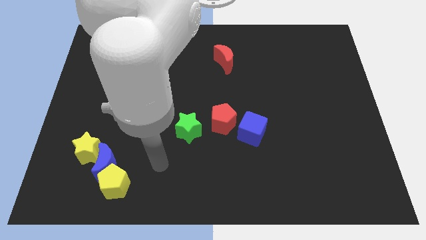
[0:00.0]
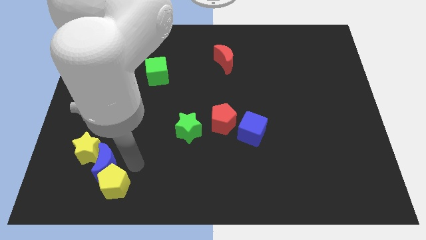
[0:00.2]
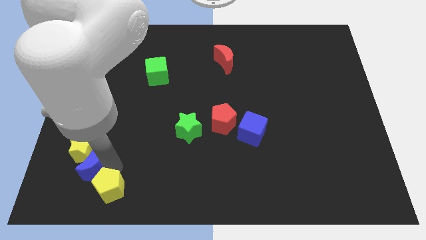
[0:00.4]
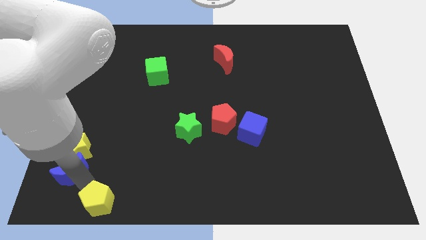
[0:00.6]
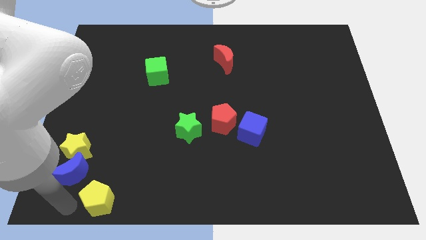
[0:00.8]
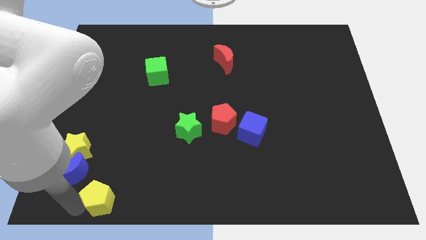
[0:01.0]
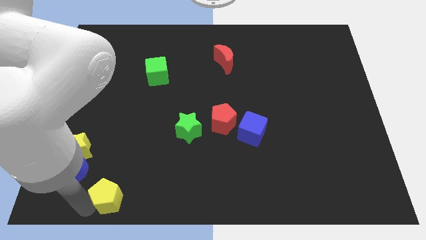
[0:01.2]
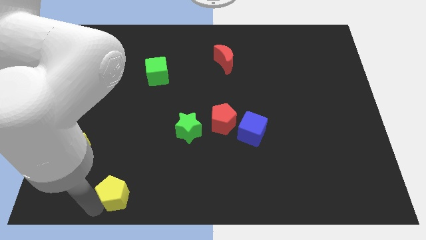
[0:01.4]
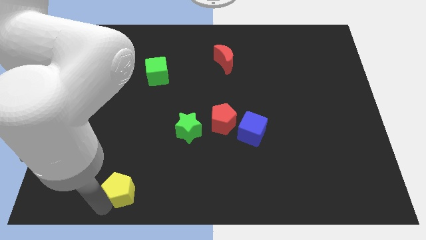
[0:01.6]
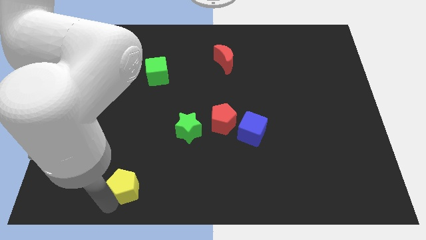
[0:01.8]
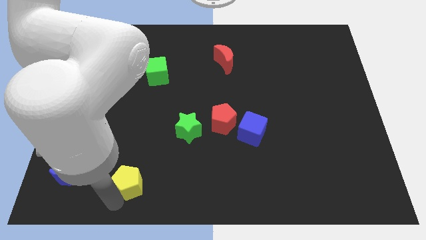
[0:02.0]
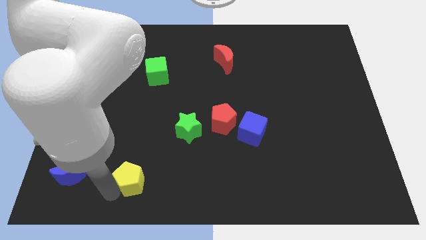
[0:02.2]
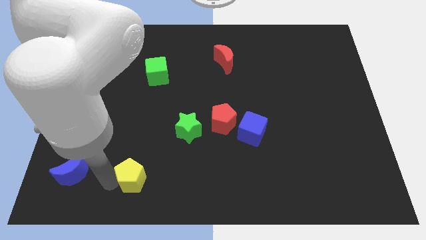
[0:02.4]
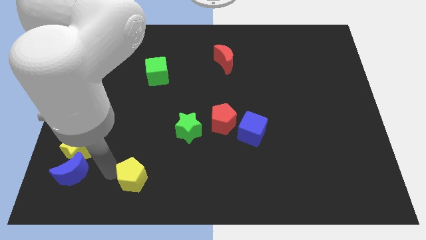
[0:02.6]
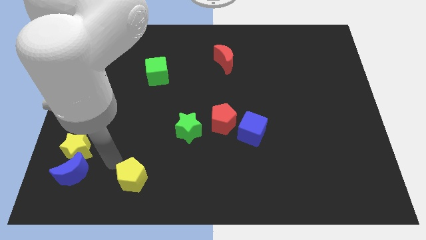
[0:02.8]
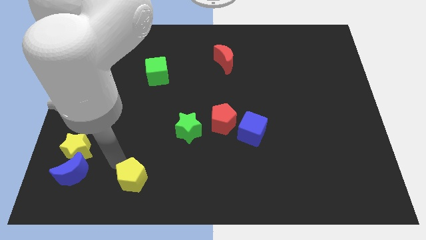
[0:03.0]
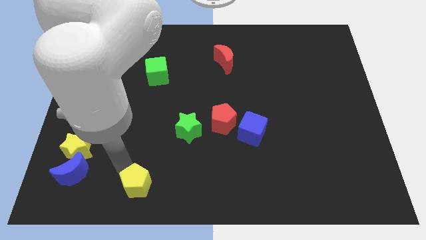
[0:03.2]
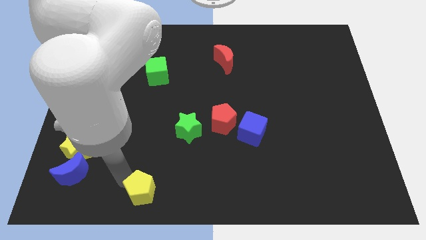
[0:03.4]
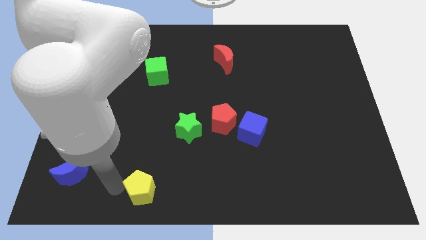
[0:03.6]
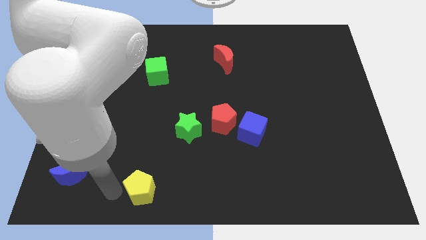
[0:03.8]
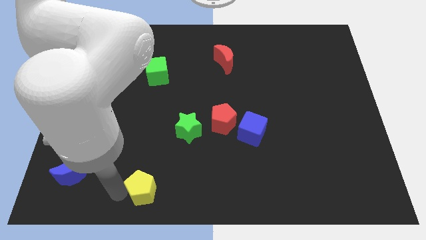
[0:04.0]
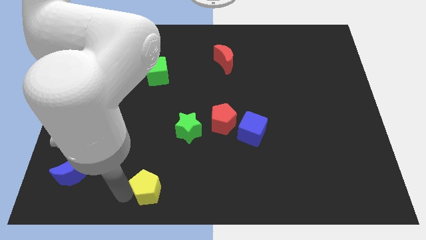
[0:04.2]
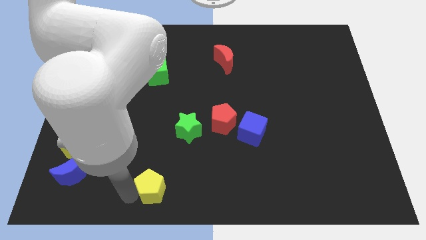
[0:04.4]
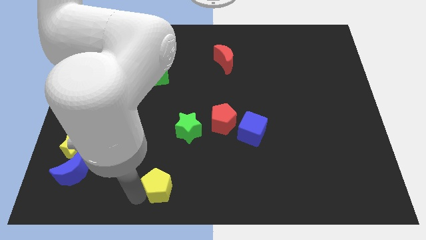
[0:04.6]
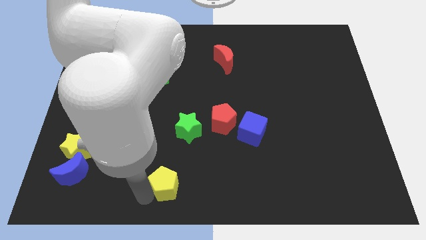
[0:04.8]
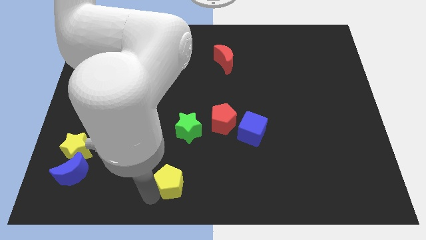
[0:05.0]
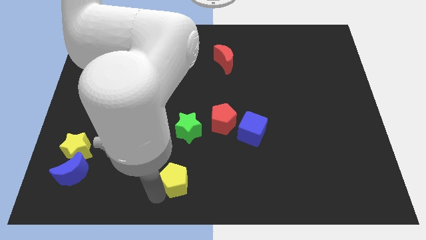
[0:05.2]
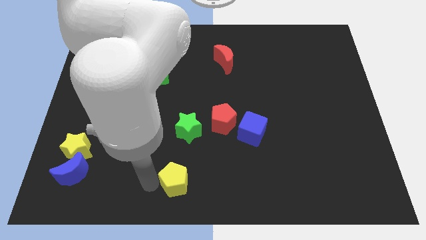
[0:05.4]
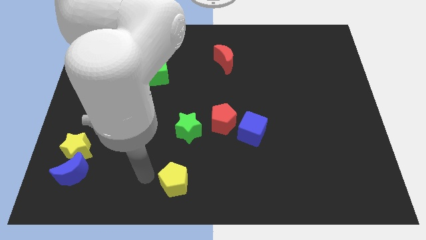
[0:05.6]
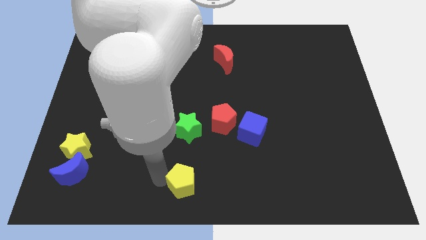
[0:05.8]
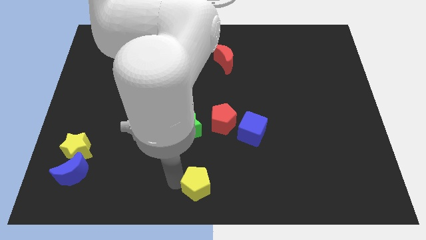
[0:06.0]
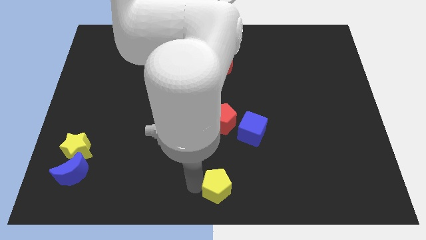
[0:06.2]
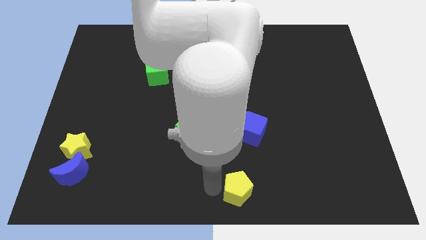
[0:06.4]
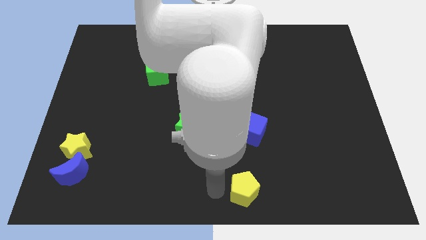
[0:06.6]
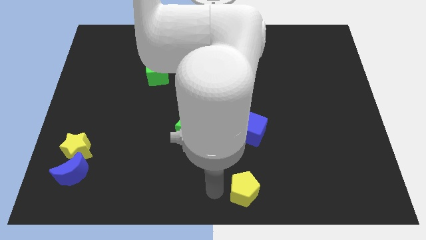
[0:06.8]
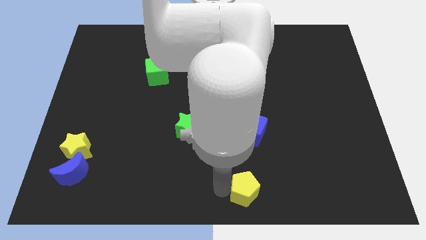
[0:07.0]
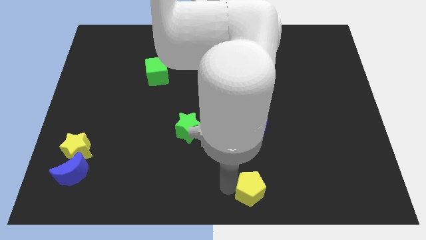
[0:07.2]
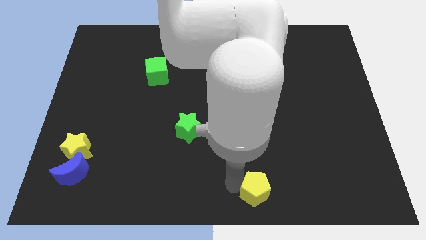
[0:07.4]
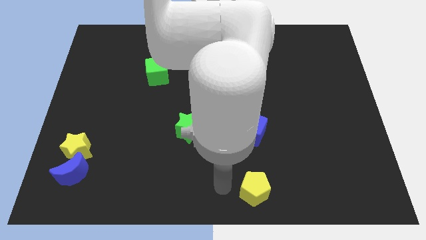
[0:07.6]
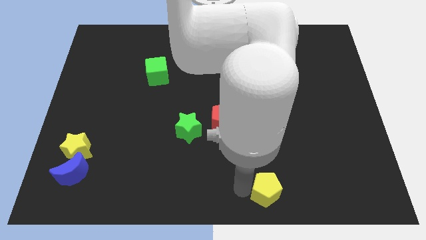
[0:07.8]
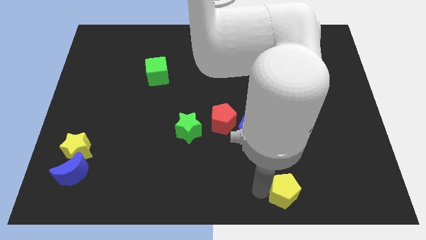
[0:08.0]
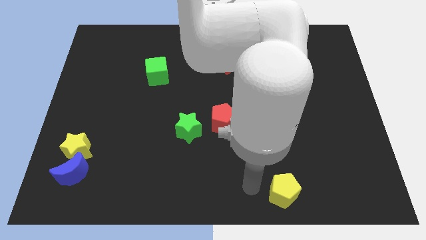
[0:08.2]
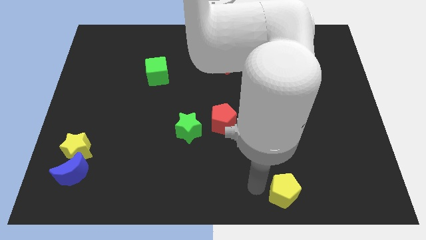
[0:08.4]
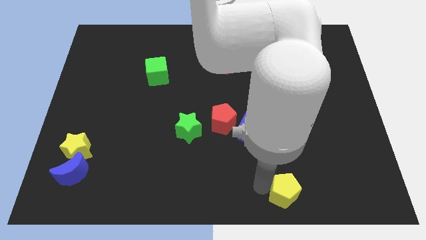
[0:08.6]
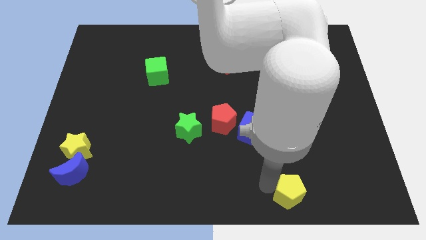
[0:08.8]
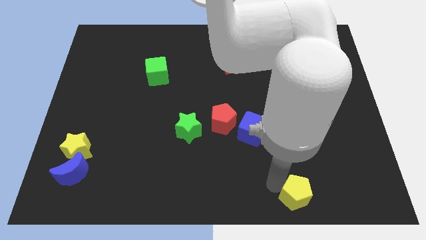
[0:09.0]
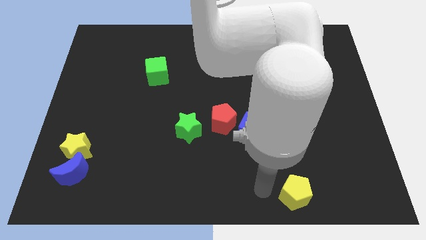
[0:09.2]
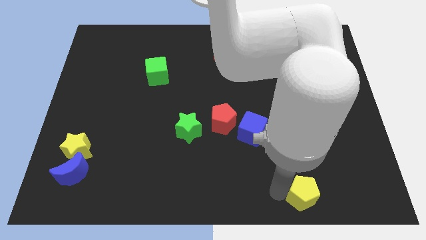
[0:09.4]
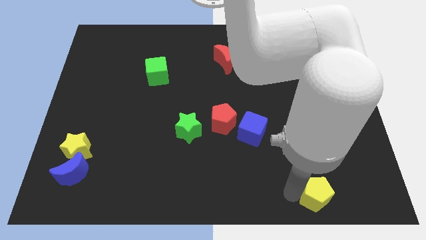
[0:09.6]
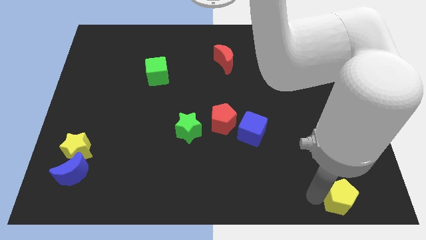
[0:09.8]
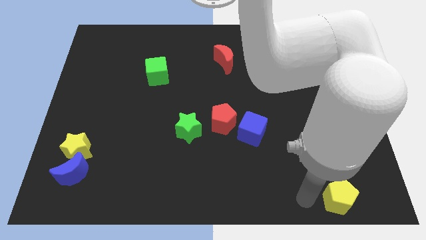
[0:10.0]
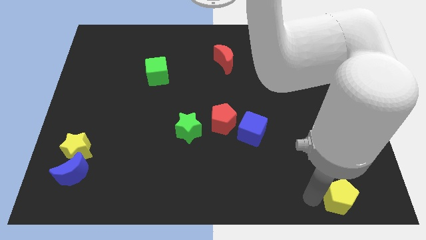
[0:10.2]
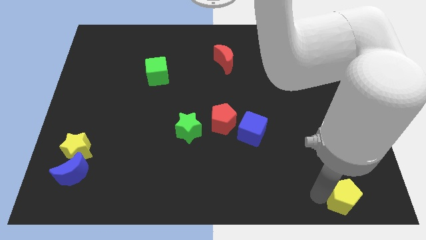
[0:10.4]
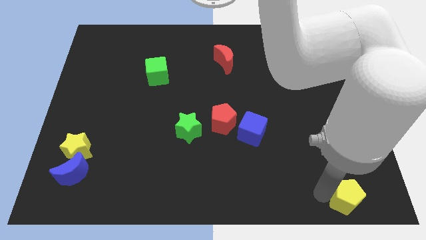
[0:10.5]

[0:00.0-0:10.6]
put the yellow pentagon to the bottom right of the board
